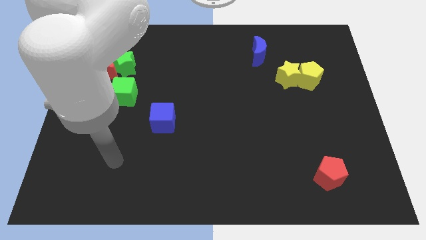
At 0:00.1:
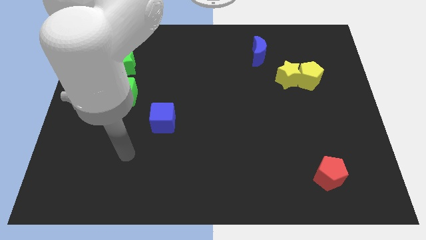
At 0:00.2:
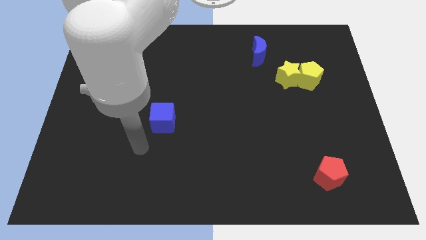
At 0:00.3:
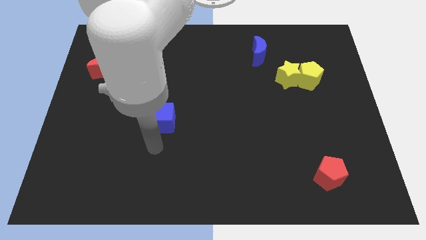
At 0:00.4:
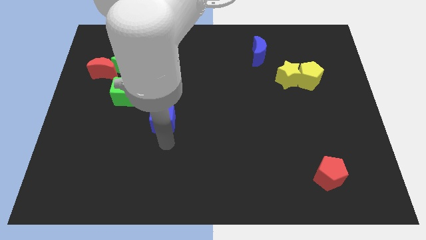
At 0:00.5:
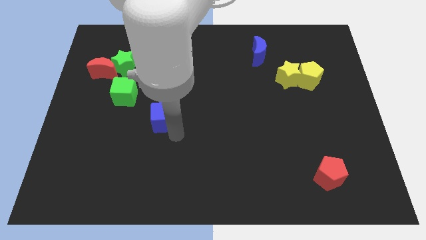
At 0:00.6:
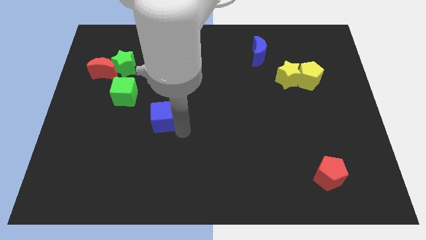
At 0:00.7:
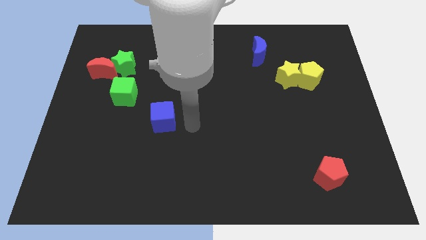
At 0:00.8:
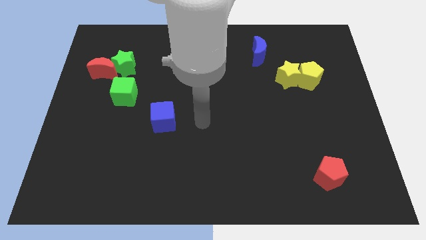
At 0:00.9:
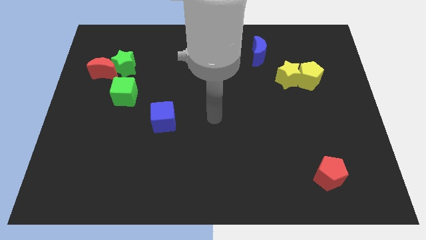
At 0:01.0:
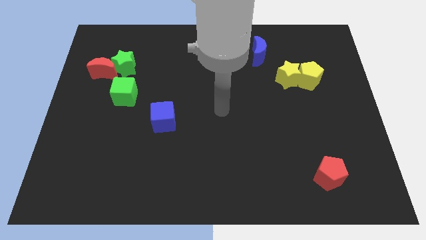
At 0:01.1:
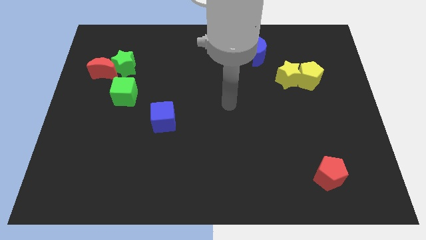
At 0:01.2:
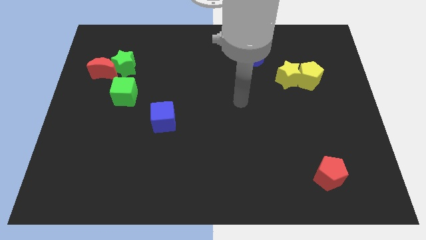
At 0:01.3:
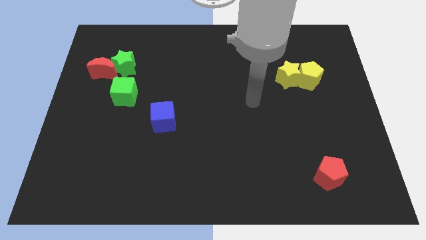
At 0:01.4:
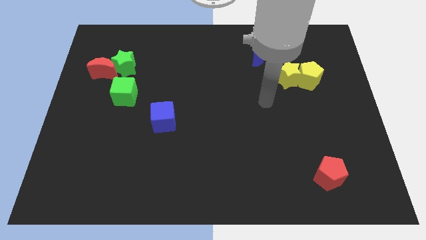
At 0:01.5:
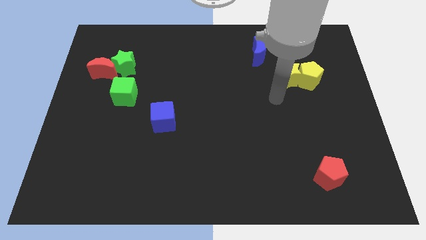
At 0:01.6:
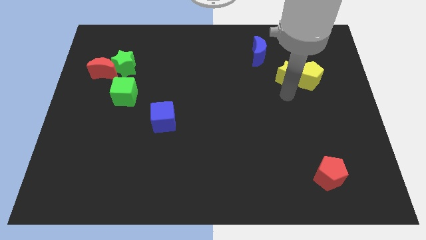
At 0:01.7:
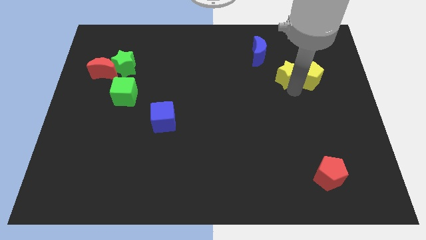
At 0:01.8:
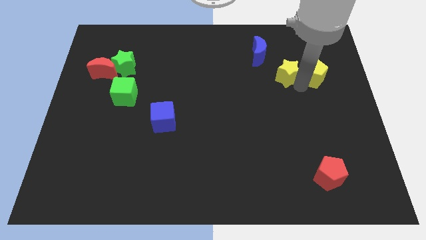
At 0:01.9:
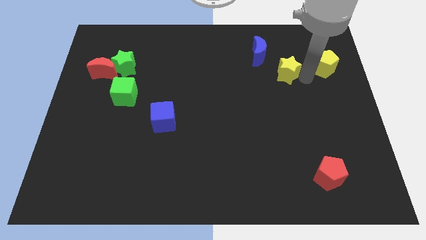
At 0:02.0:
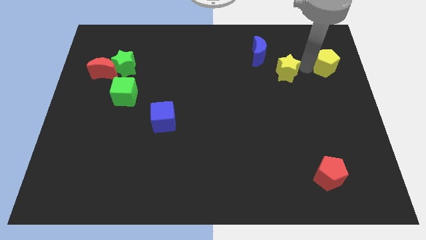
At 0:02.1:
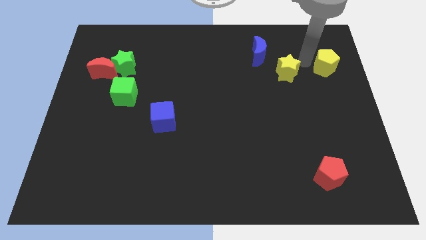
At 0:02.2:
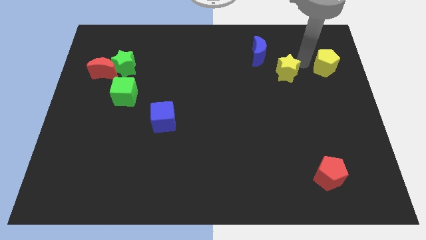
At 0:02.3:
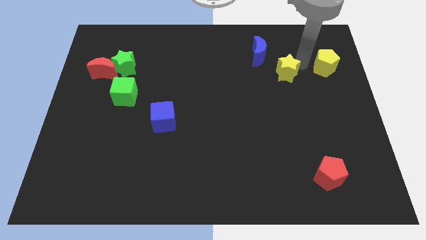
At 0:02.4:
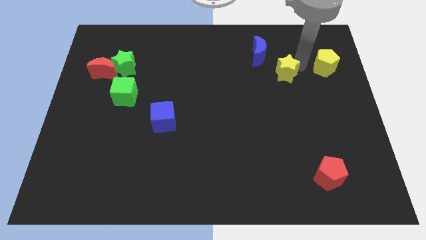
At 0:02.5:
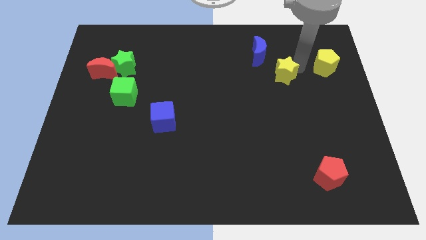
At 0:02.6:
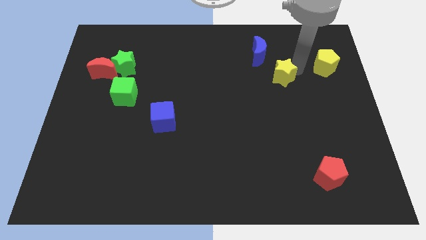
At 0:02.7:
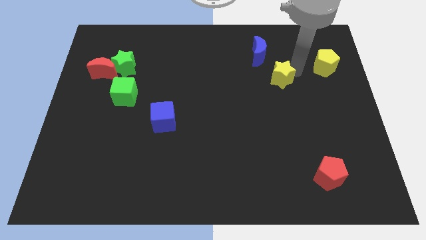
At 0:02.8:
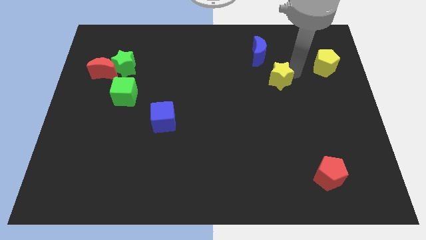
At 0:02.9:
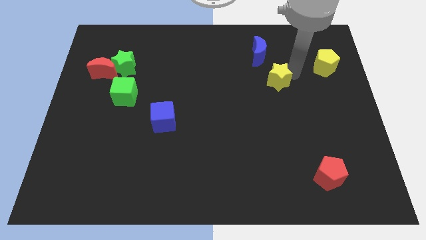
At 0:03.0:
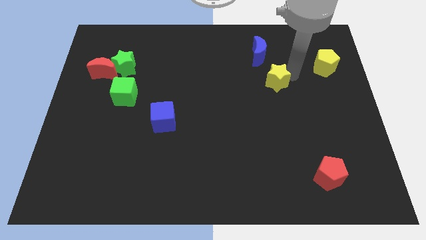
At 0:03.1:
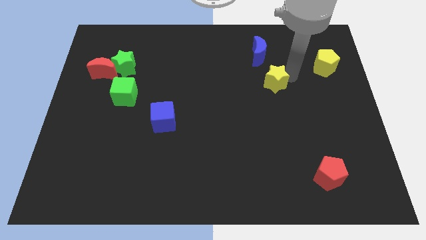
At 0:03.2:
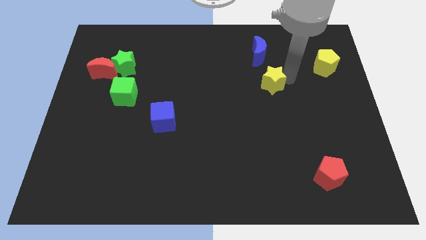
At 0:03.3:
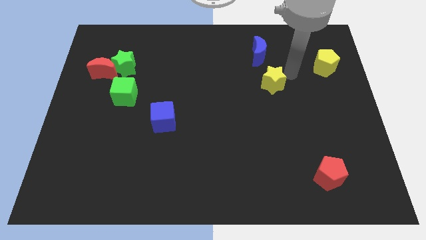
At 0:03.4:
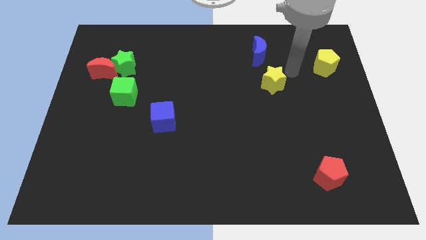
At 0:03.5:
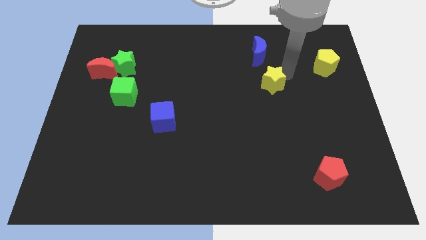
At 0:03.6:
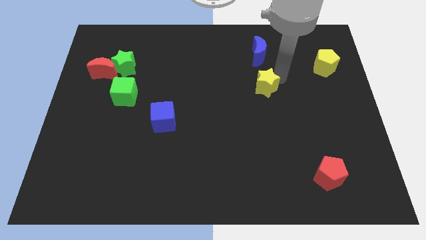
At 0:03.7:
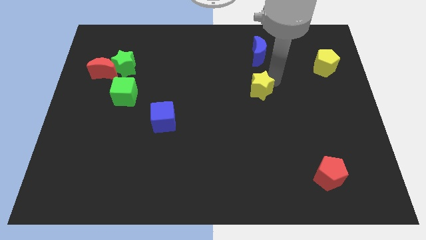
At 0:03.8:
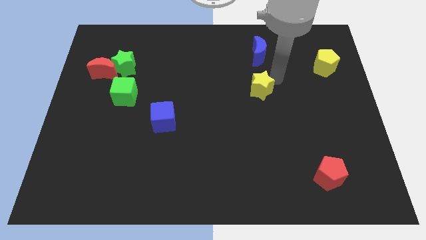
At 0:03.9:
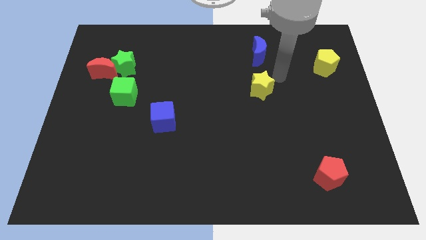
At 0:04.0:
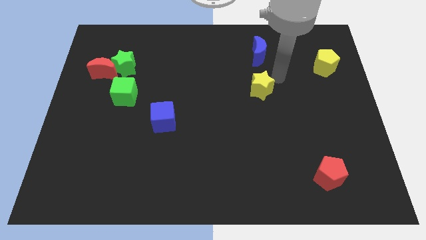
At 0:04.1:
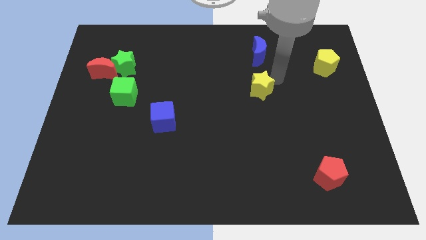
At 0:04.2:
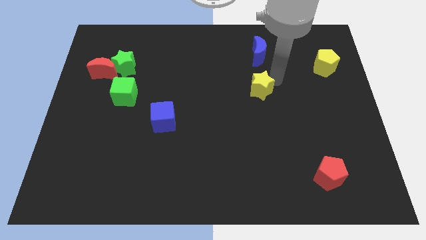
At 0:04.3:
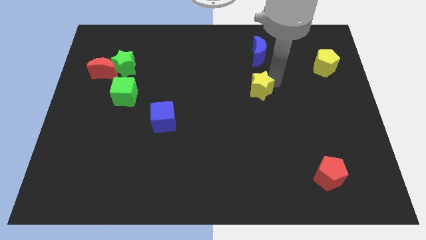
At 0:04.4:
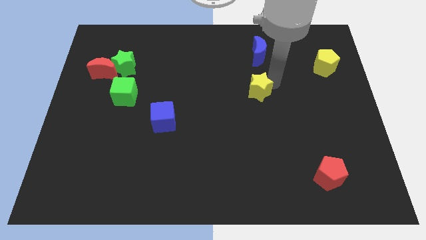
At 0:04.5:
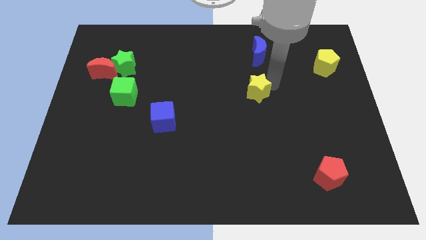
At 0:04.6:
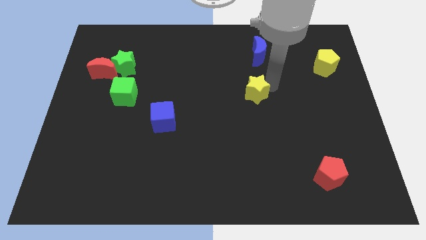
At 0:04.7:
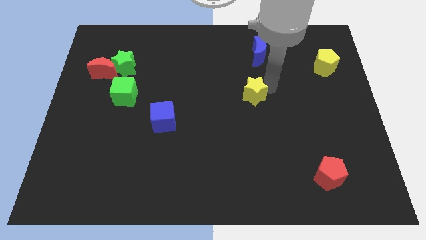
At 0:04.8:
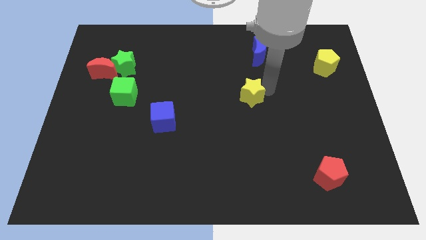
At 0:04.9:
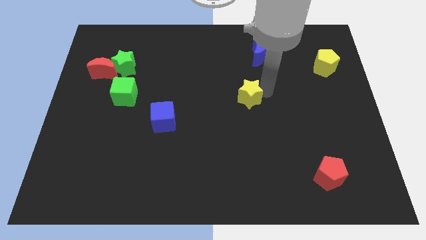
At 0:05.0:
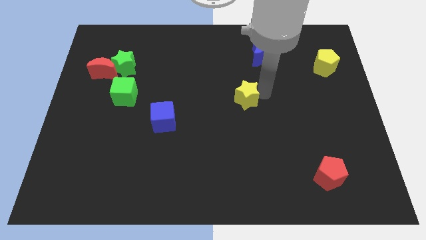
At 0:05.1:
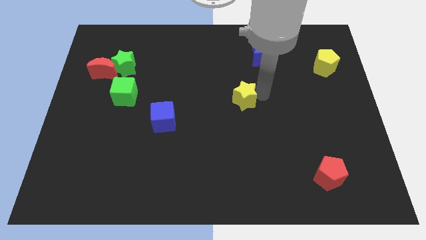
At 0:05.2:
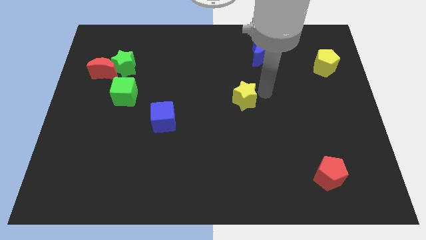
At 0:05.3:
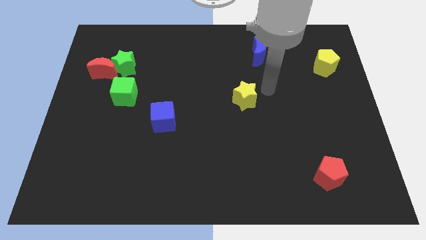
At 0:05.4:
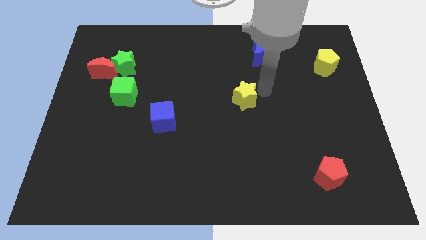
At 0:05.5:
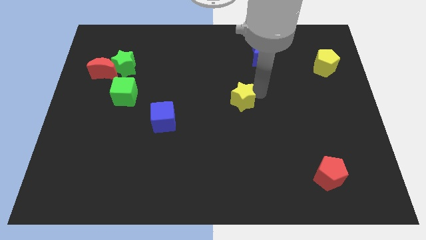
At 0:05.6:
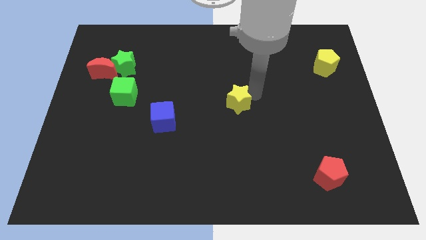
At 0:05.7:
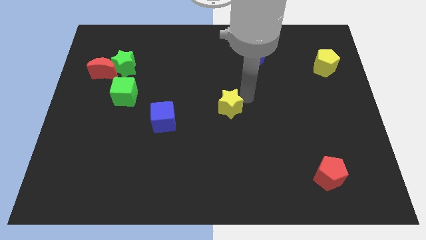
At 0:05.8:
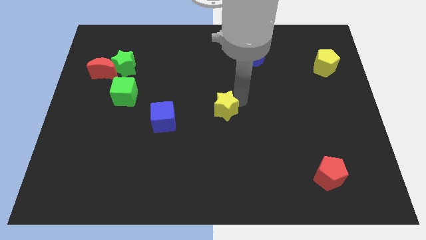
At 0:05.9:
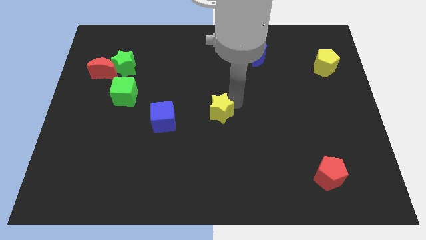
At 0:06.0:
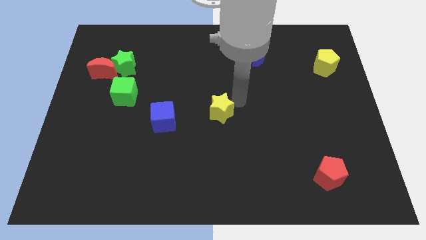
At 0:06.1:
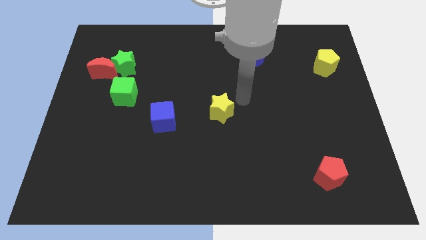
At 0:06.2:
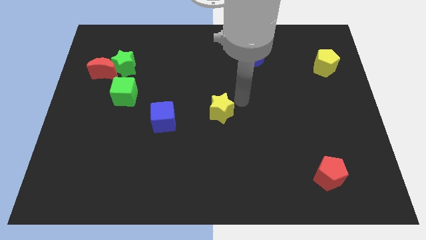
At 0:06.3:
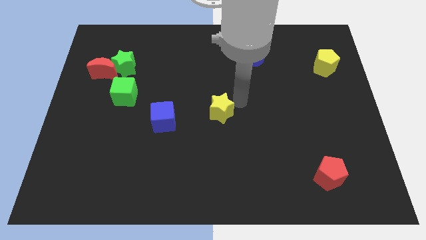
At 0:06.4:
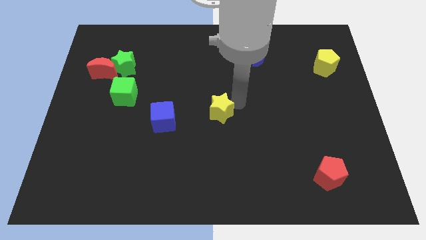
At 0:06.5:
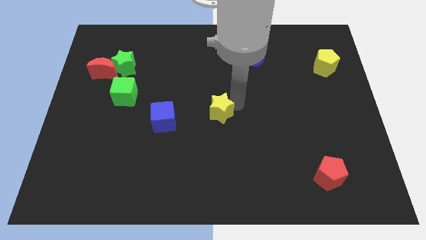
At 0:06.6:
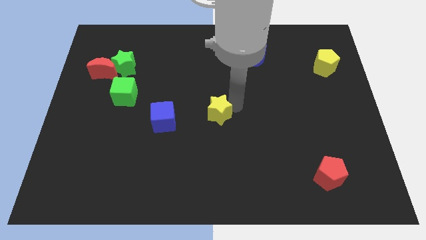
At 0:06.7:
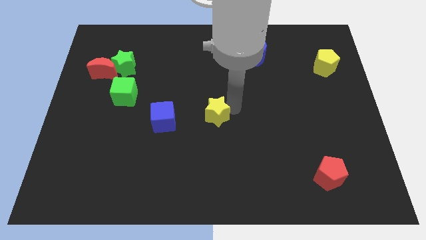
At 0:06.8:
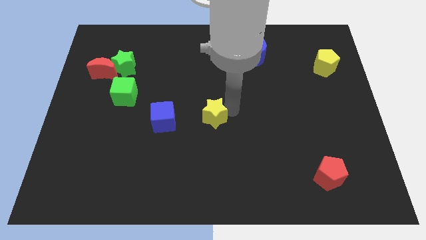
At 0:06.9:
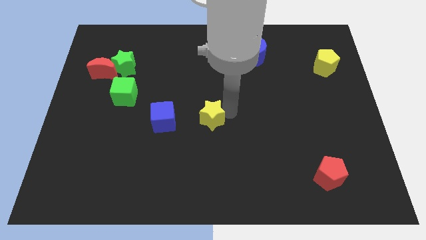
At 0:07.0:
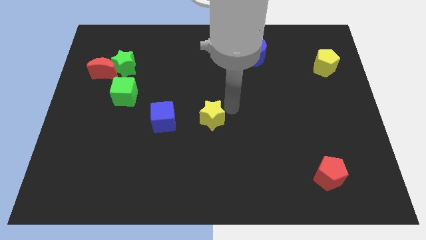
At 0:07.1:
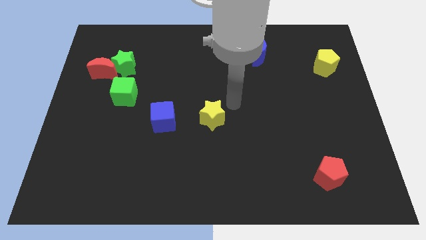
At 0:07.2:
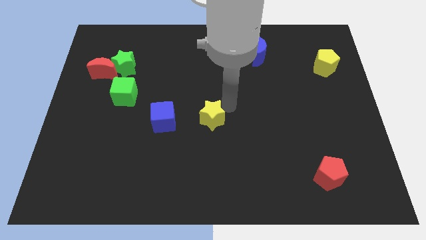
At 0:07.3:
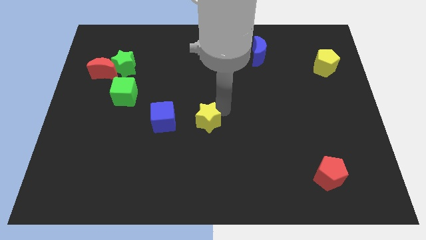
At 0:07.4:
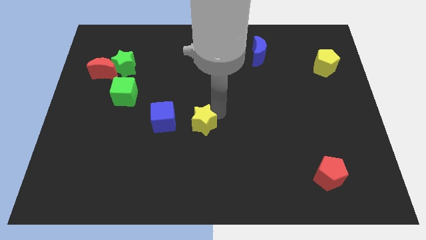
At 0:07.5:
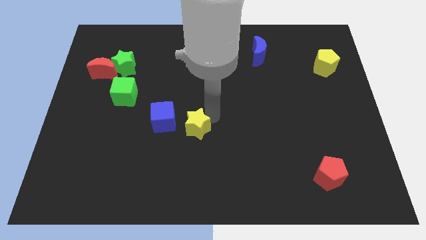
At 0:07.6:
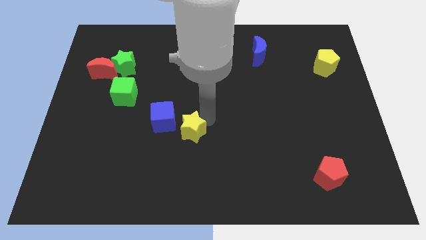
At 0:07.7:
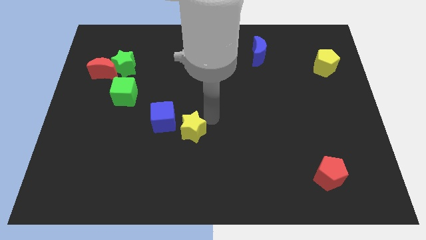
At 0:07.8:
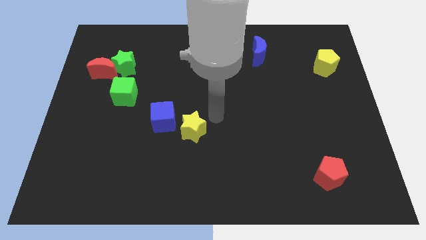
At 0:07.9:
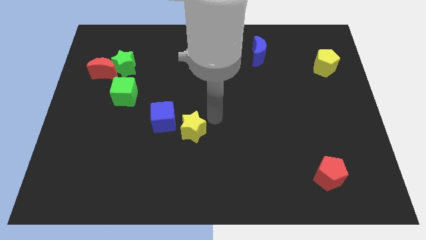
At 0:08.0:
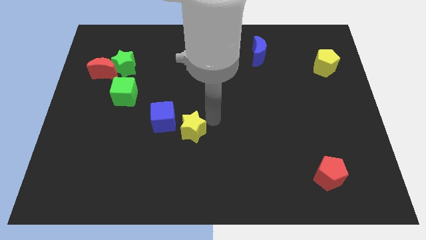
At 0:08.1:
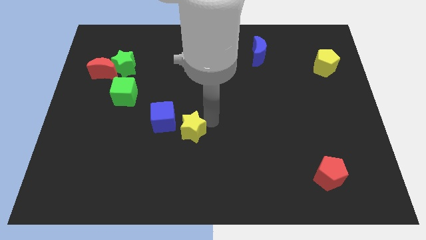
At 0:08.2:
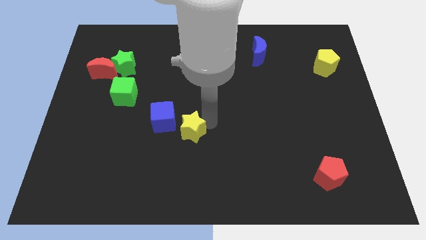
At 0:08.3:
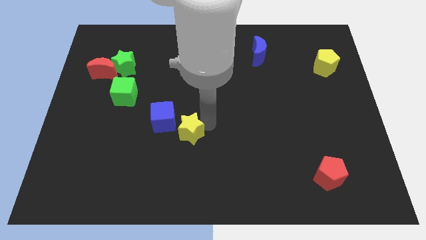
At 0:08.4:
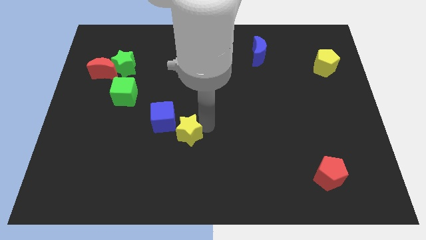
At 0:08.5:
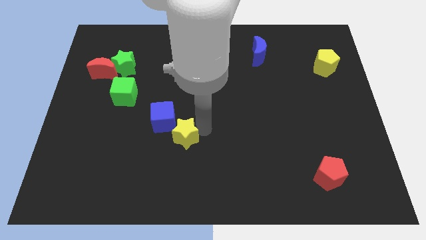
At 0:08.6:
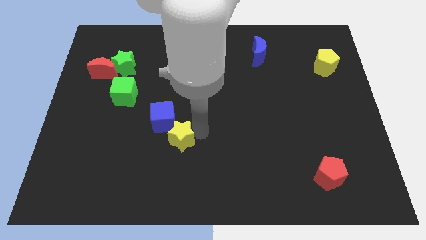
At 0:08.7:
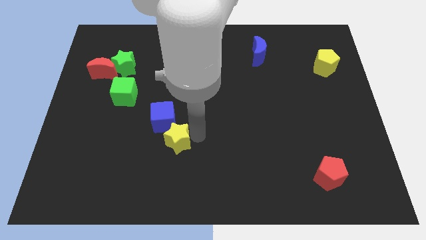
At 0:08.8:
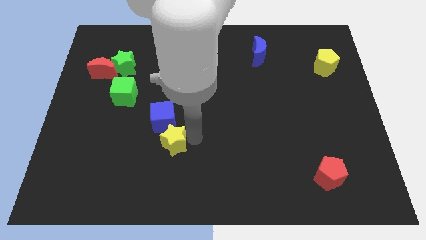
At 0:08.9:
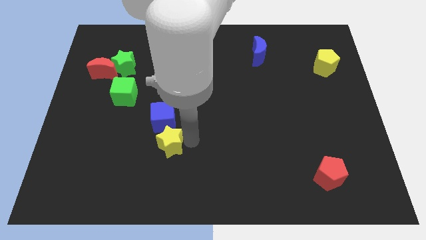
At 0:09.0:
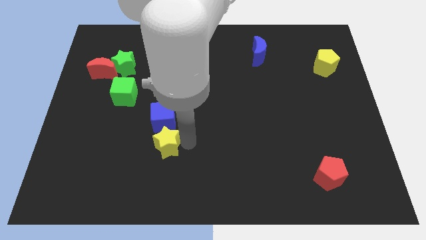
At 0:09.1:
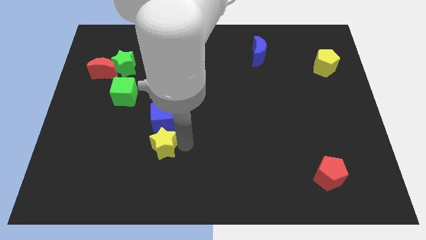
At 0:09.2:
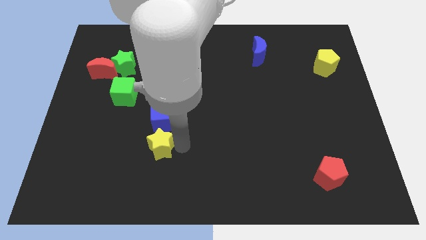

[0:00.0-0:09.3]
push the yellow star to the bottom left of the blue cube
